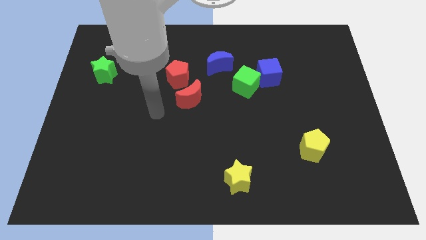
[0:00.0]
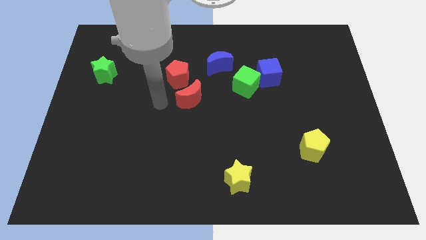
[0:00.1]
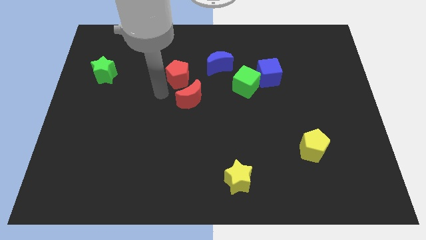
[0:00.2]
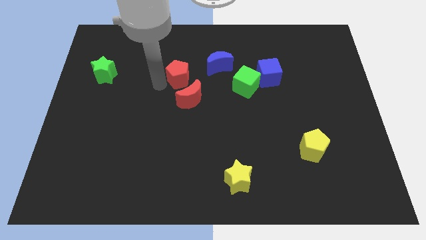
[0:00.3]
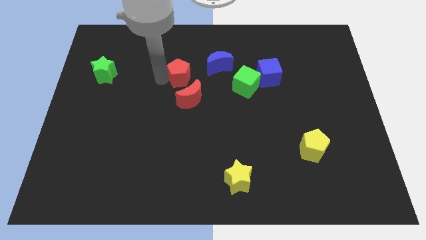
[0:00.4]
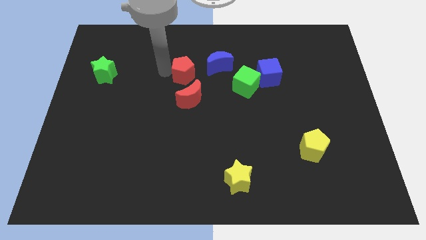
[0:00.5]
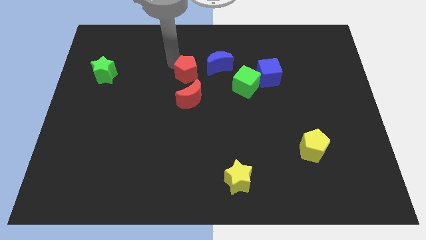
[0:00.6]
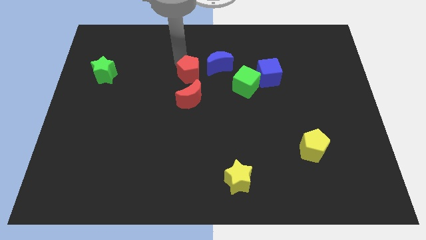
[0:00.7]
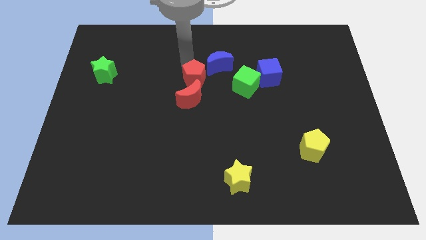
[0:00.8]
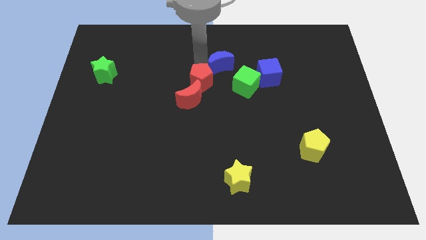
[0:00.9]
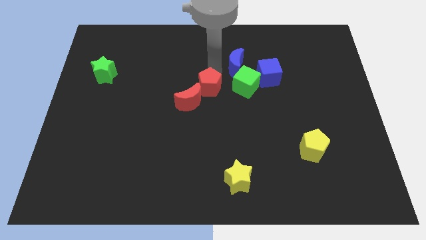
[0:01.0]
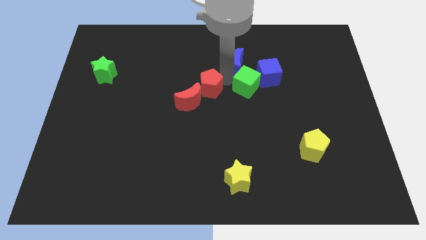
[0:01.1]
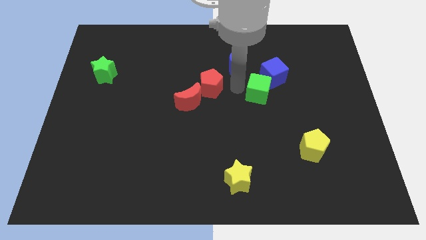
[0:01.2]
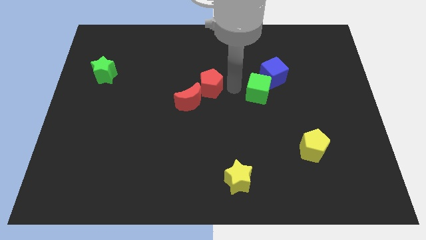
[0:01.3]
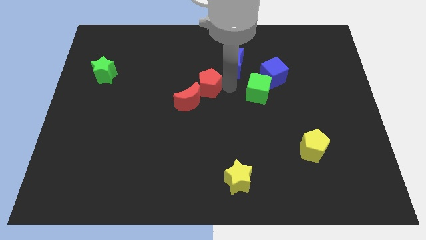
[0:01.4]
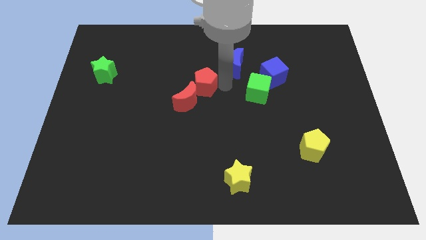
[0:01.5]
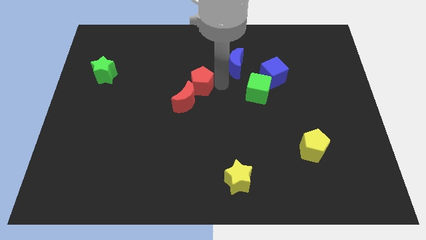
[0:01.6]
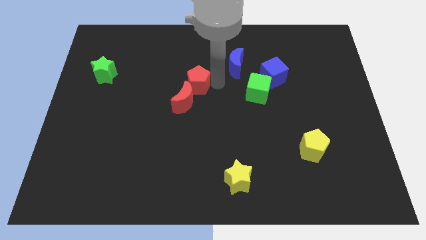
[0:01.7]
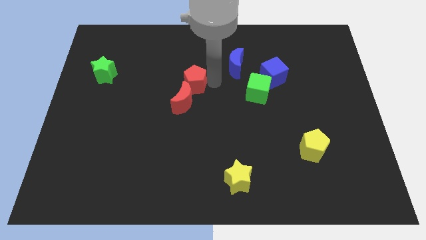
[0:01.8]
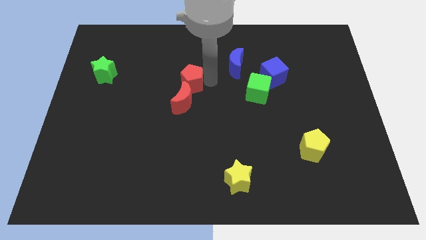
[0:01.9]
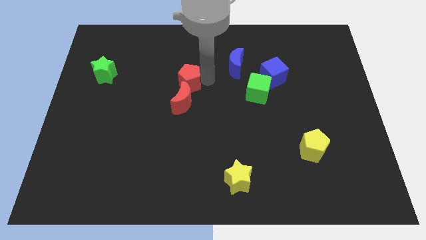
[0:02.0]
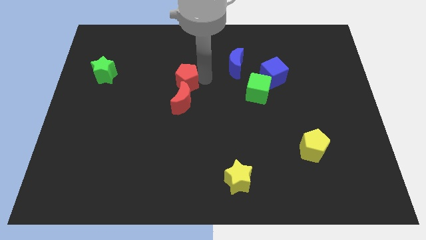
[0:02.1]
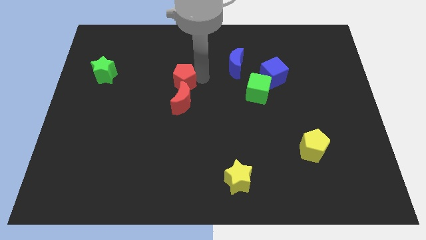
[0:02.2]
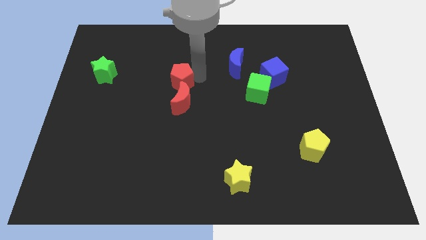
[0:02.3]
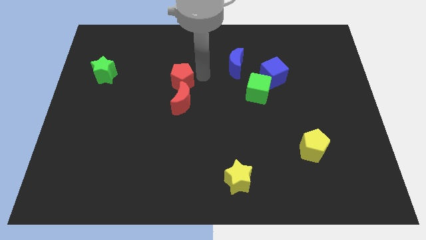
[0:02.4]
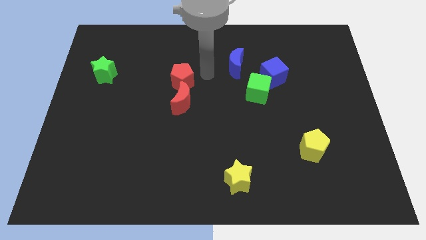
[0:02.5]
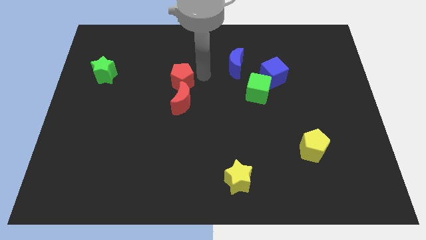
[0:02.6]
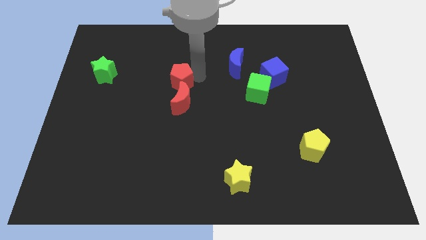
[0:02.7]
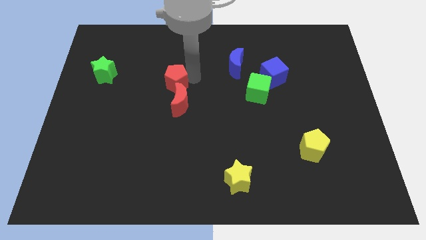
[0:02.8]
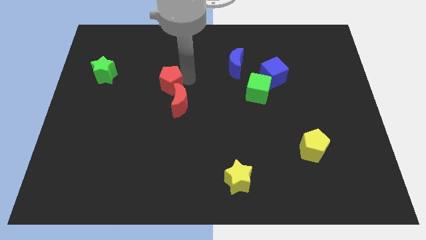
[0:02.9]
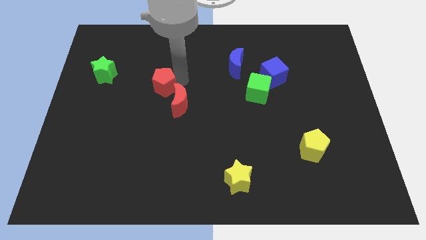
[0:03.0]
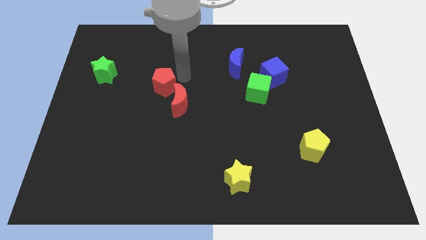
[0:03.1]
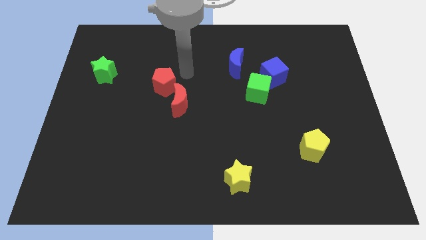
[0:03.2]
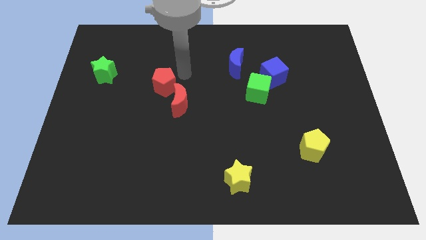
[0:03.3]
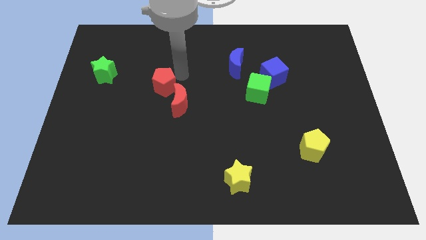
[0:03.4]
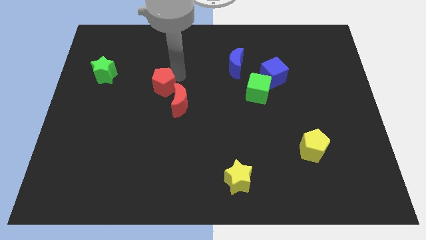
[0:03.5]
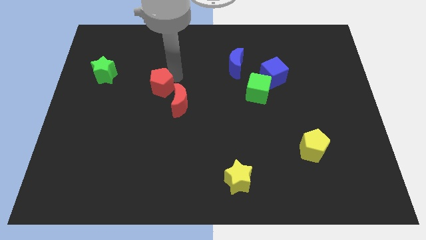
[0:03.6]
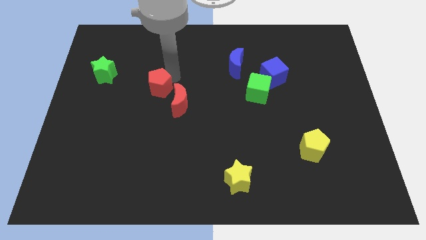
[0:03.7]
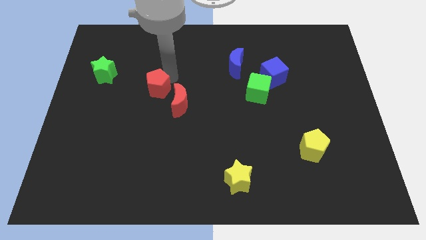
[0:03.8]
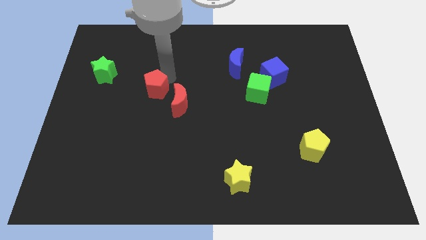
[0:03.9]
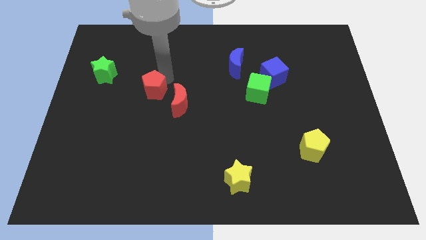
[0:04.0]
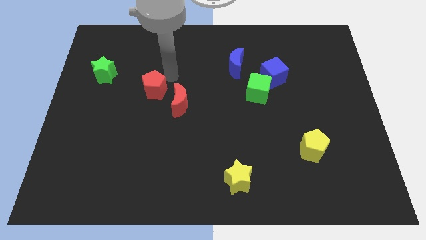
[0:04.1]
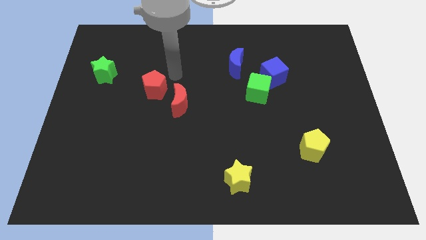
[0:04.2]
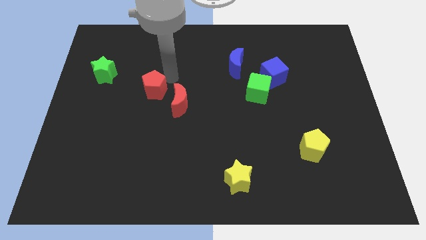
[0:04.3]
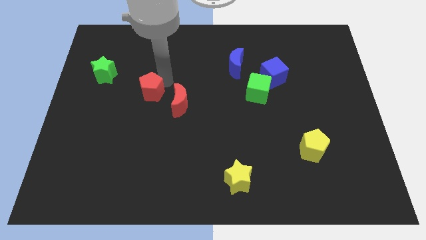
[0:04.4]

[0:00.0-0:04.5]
slightly slide the red pentagon downwards and to the left diagonally

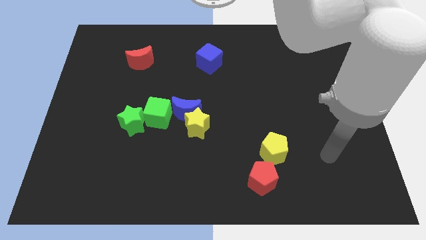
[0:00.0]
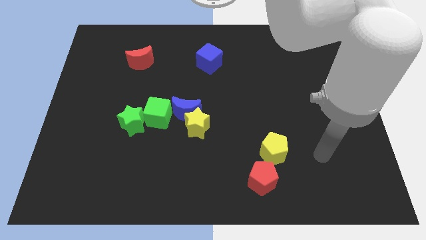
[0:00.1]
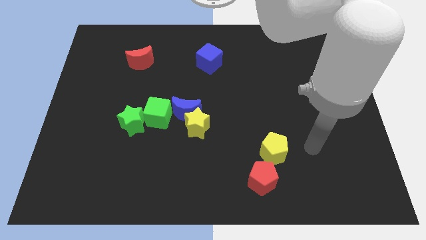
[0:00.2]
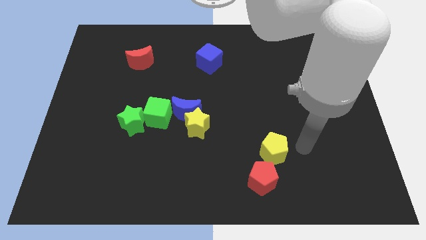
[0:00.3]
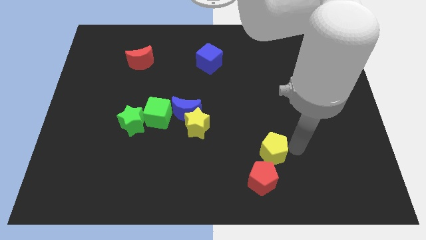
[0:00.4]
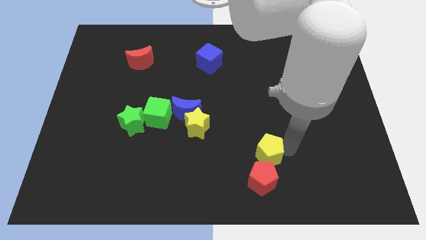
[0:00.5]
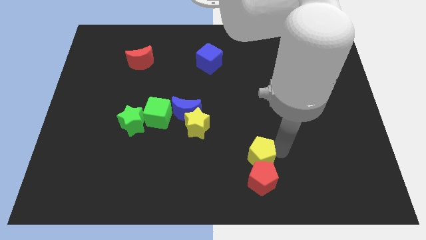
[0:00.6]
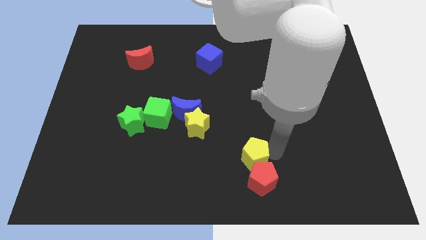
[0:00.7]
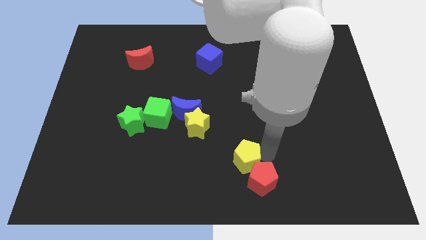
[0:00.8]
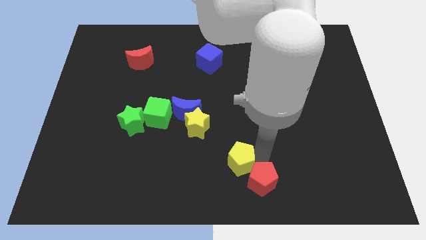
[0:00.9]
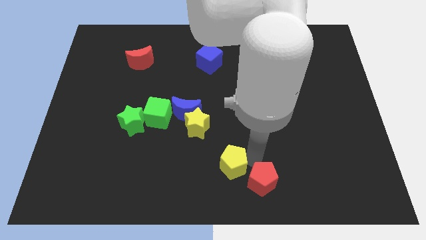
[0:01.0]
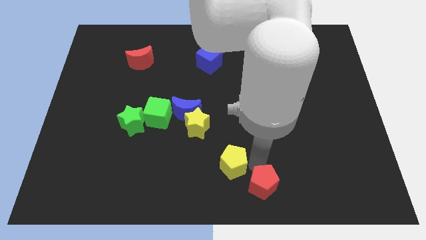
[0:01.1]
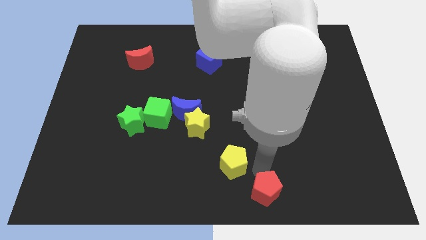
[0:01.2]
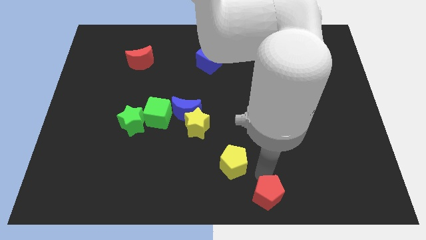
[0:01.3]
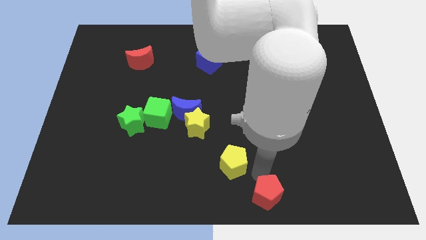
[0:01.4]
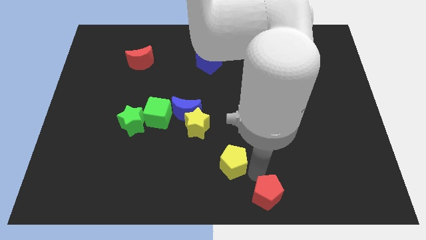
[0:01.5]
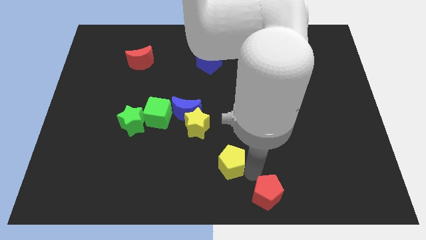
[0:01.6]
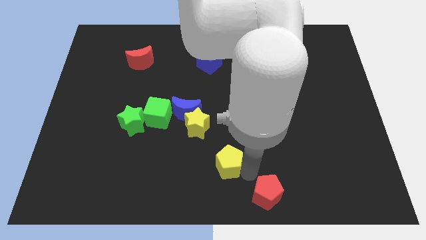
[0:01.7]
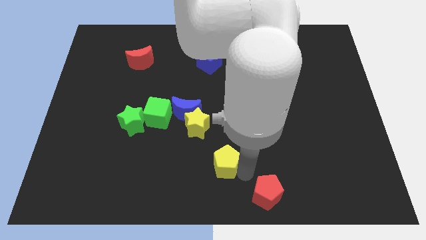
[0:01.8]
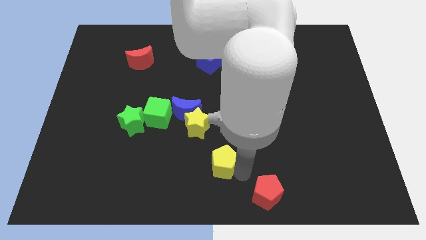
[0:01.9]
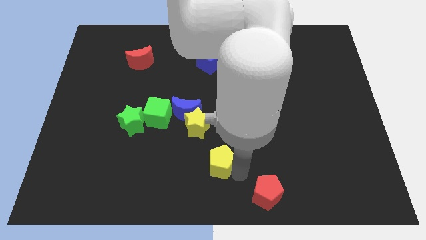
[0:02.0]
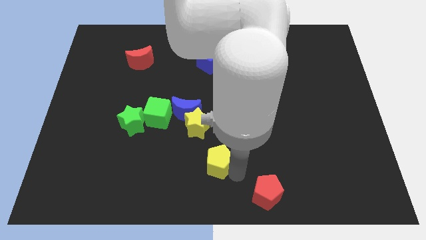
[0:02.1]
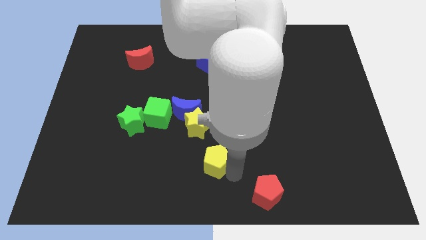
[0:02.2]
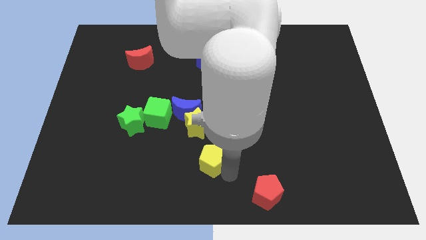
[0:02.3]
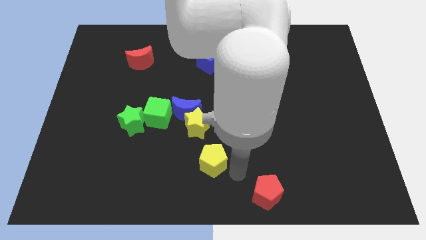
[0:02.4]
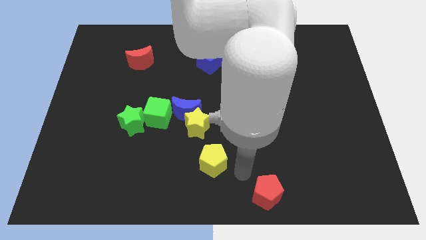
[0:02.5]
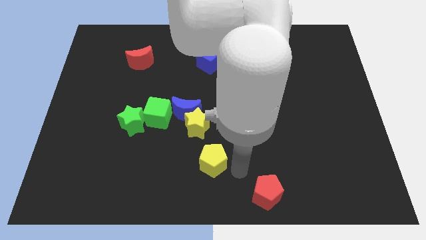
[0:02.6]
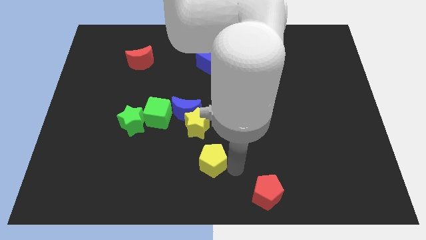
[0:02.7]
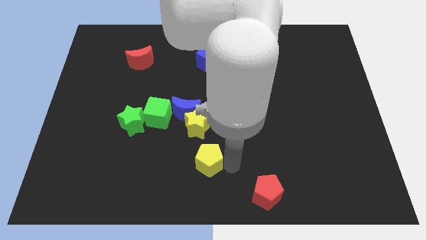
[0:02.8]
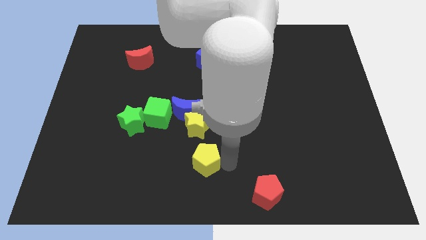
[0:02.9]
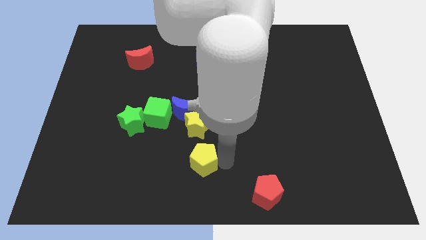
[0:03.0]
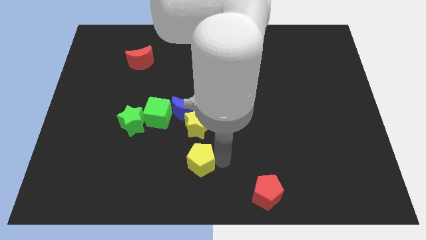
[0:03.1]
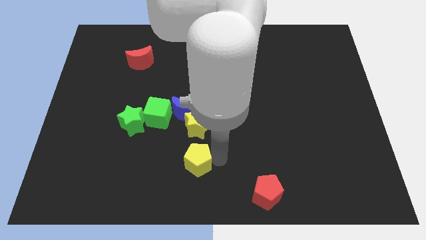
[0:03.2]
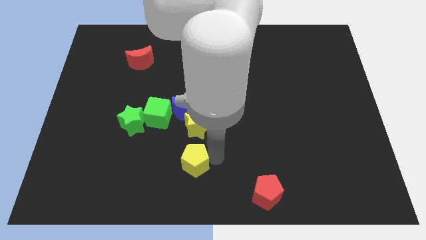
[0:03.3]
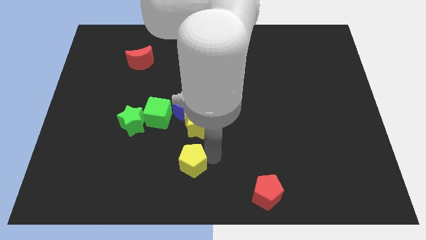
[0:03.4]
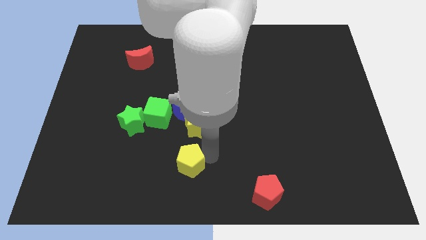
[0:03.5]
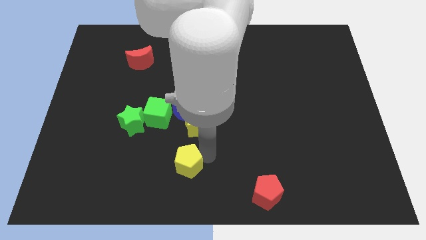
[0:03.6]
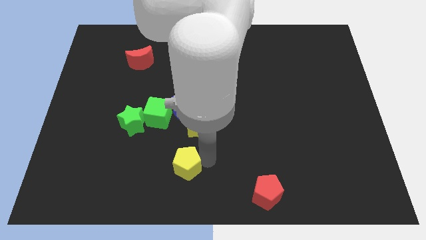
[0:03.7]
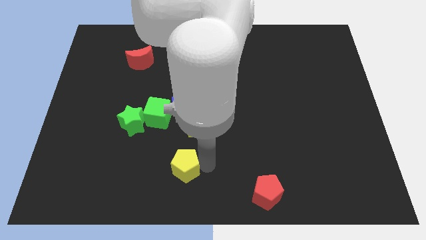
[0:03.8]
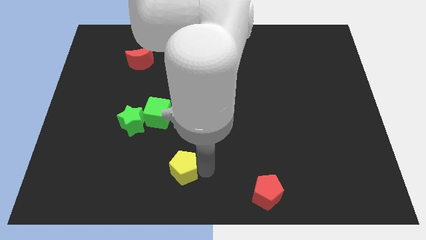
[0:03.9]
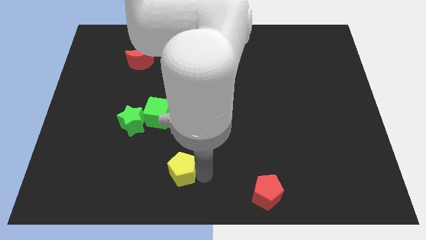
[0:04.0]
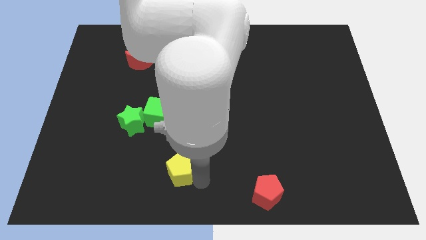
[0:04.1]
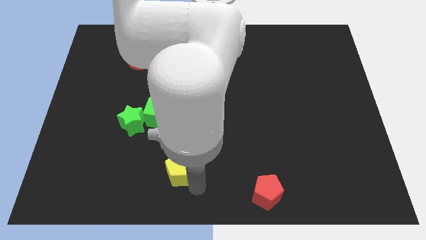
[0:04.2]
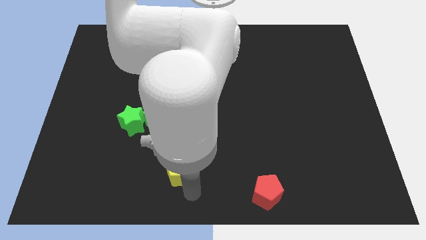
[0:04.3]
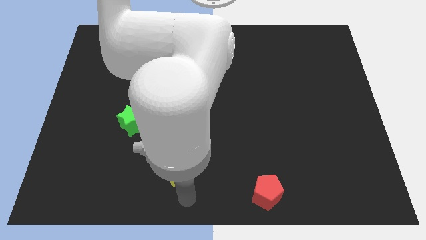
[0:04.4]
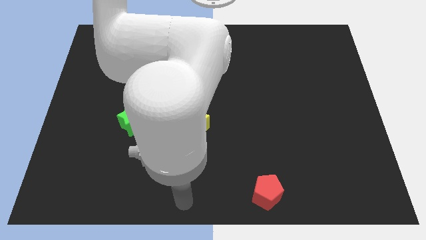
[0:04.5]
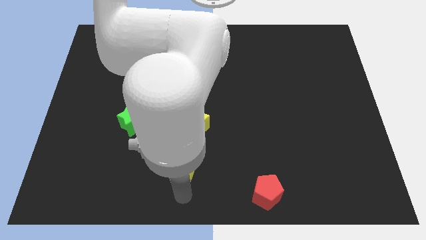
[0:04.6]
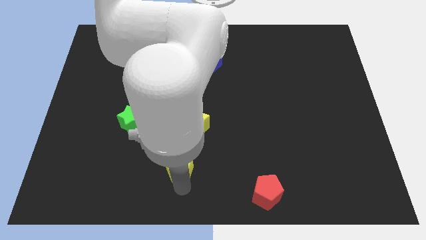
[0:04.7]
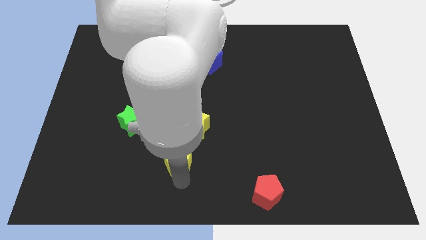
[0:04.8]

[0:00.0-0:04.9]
push the yellow pentagon to the left
